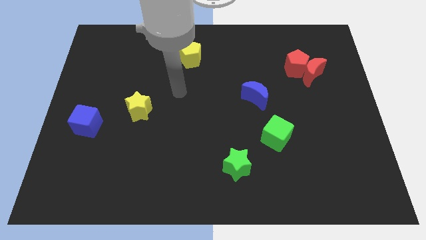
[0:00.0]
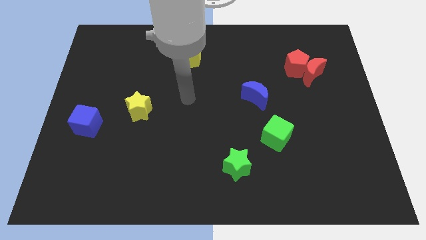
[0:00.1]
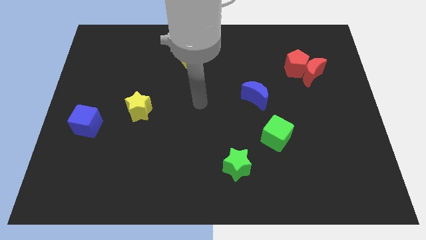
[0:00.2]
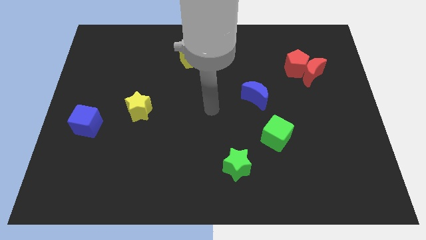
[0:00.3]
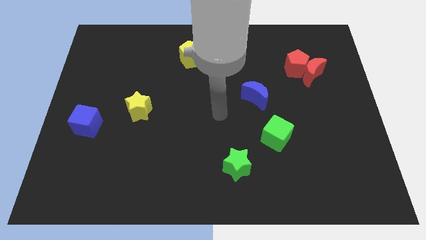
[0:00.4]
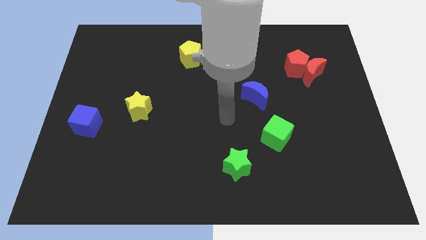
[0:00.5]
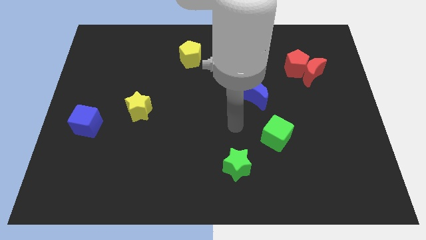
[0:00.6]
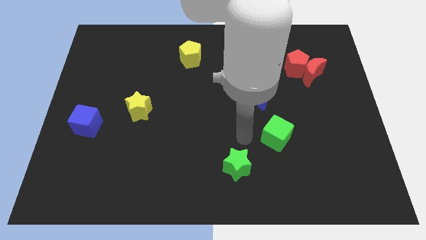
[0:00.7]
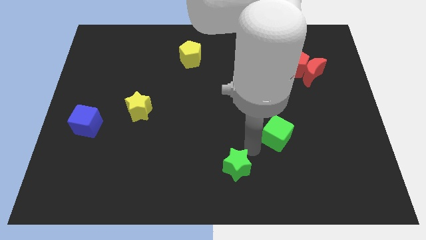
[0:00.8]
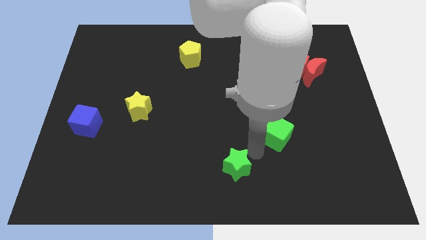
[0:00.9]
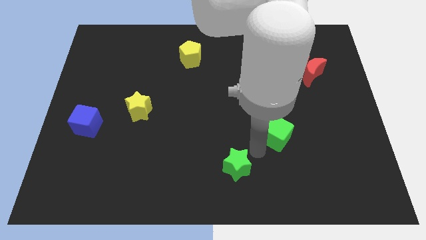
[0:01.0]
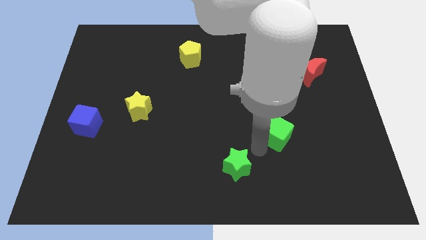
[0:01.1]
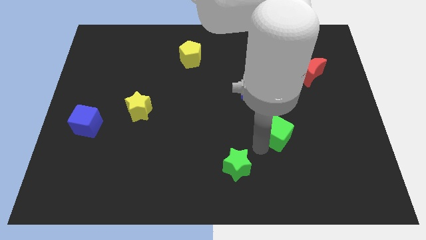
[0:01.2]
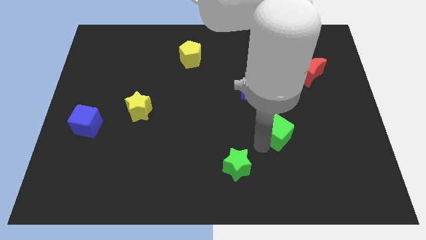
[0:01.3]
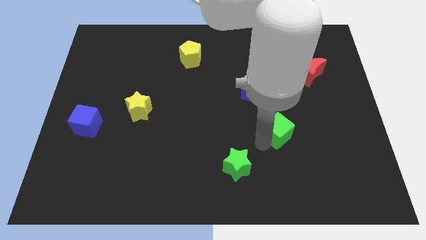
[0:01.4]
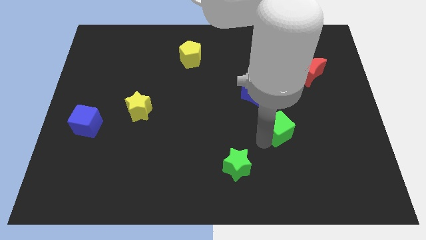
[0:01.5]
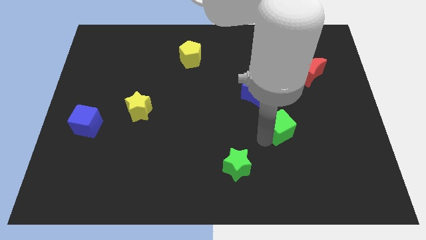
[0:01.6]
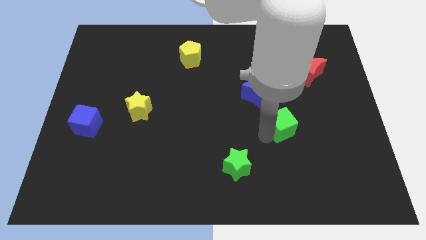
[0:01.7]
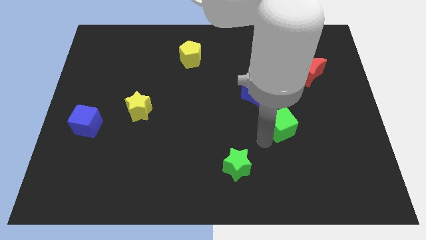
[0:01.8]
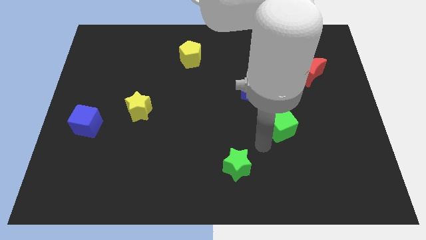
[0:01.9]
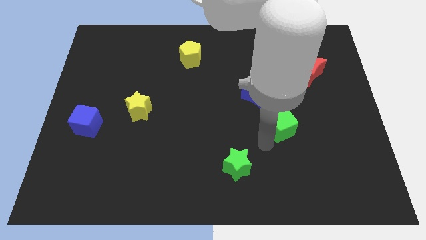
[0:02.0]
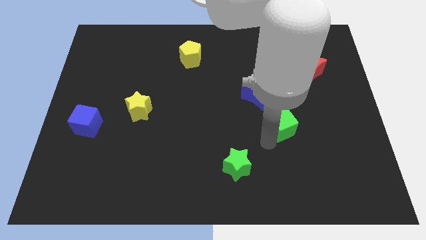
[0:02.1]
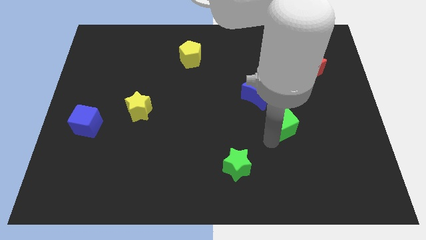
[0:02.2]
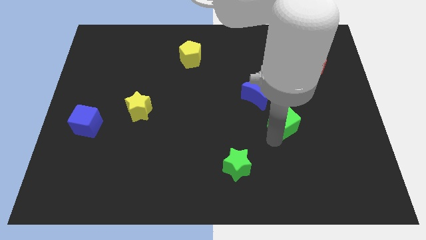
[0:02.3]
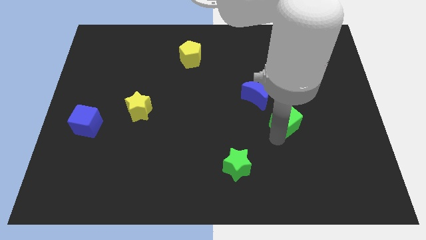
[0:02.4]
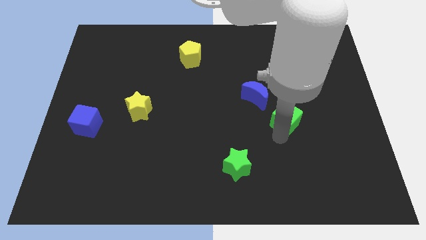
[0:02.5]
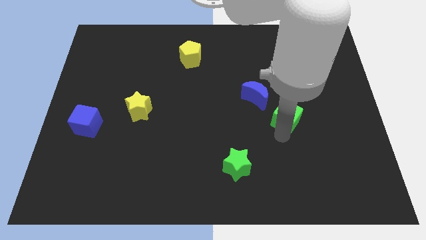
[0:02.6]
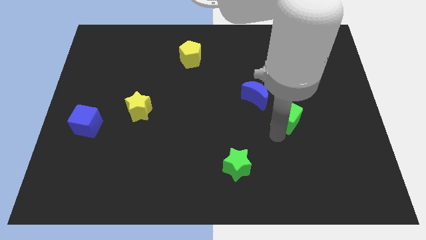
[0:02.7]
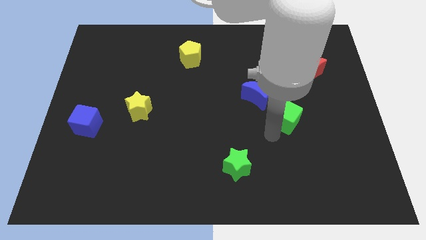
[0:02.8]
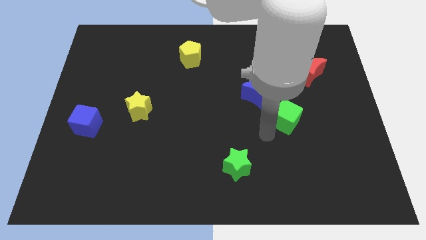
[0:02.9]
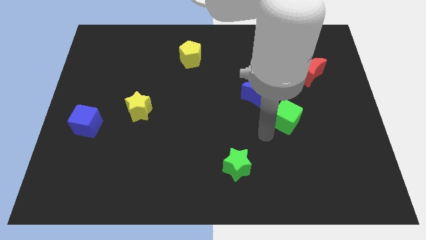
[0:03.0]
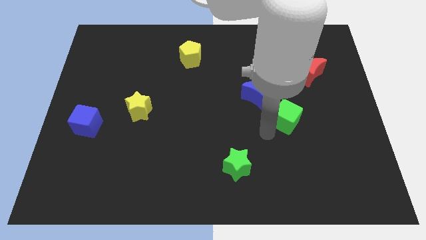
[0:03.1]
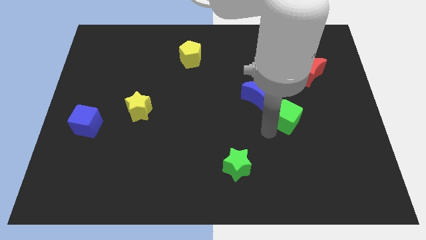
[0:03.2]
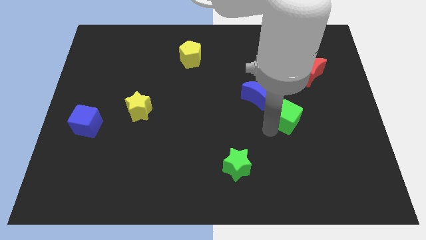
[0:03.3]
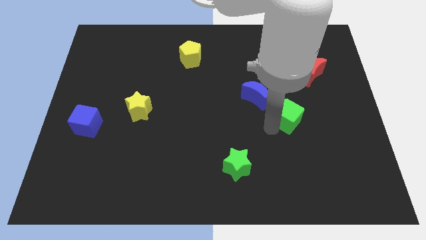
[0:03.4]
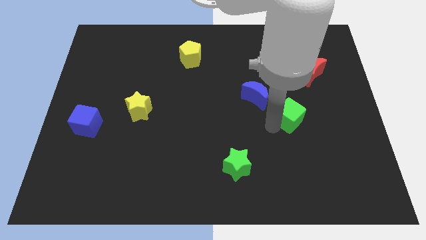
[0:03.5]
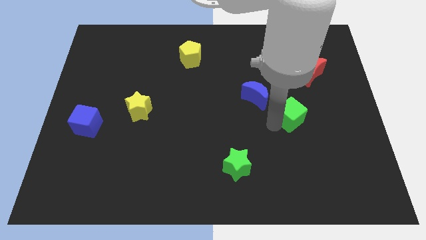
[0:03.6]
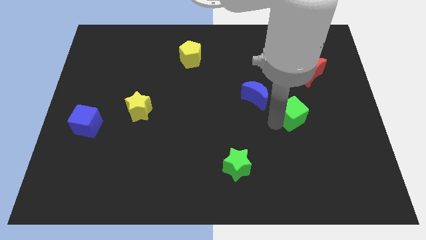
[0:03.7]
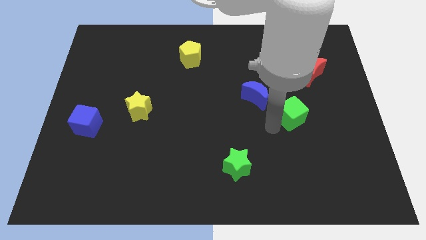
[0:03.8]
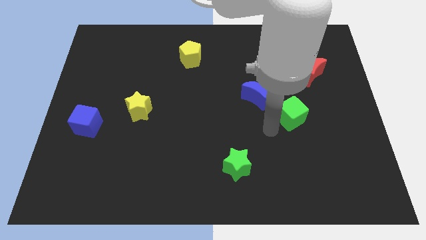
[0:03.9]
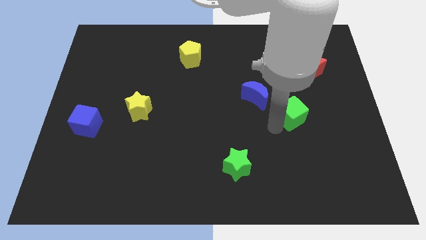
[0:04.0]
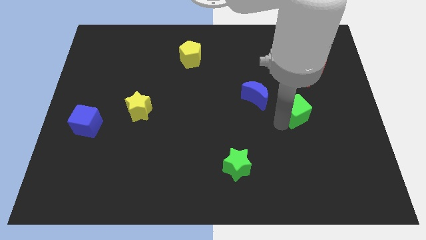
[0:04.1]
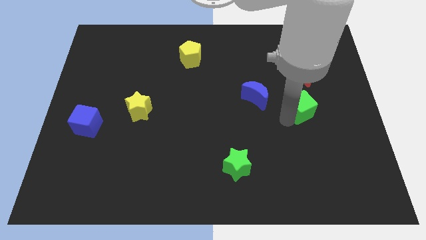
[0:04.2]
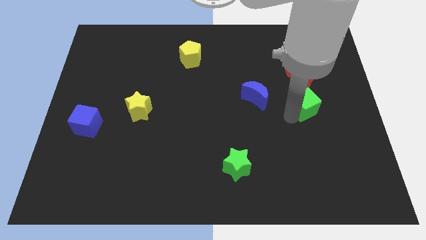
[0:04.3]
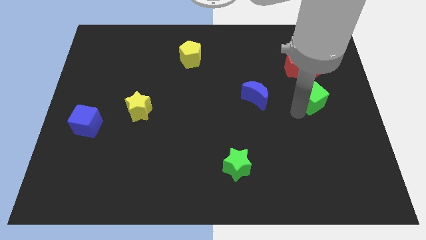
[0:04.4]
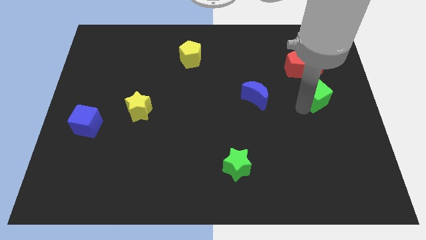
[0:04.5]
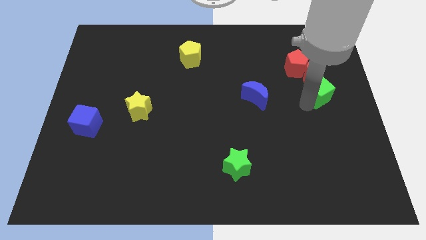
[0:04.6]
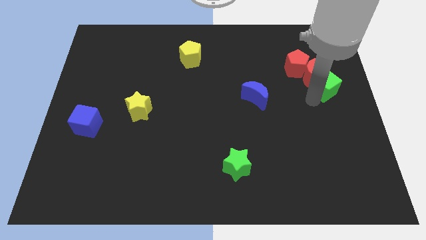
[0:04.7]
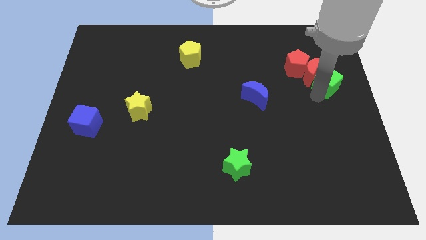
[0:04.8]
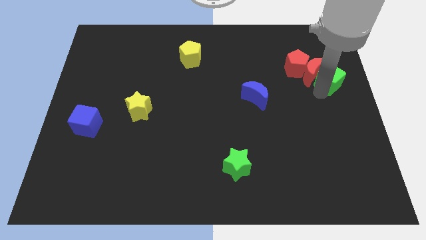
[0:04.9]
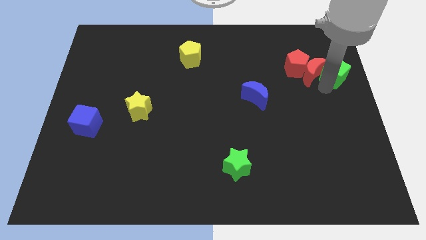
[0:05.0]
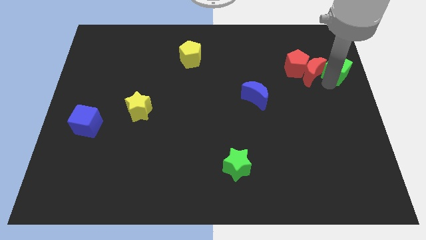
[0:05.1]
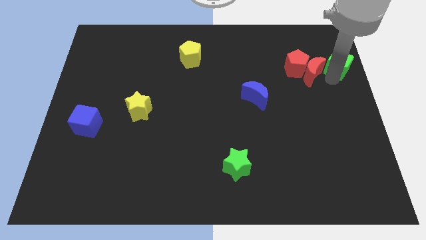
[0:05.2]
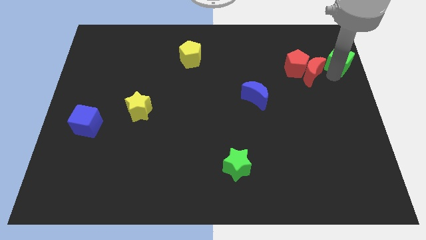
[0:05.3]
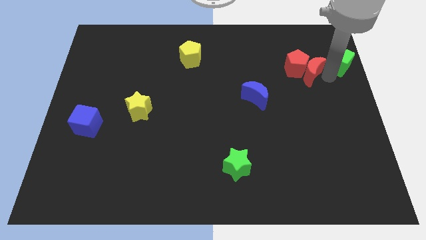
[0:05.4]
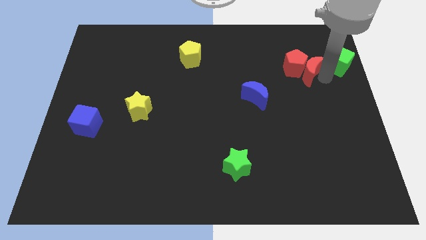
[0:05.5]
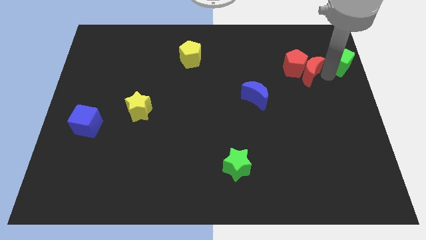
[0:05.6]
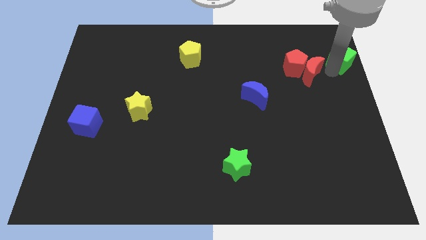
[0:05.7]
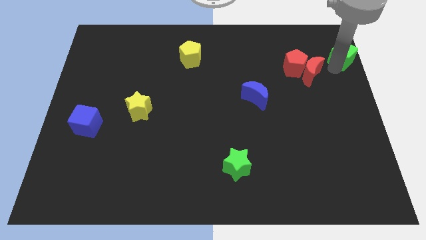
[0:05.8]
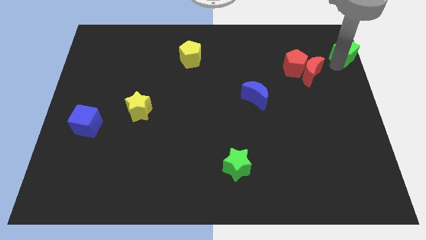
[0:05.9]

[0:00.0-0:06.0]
push the green cube to the top right
